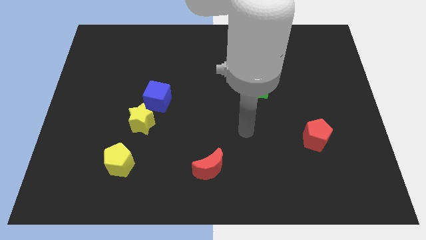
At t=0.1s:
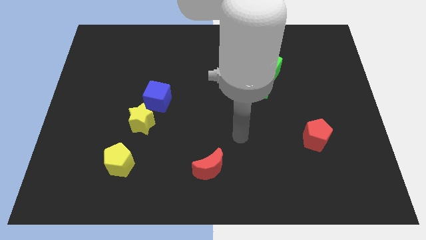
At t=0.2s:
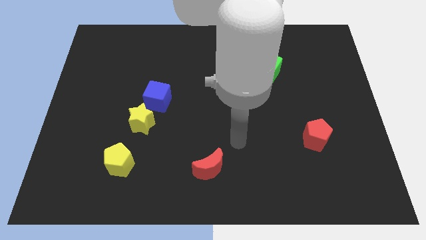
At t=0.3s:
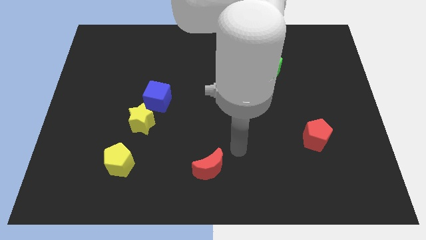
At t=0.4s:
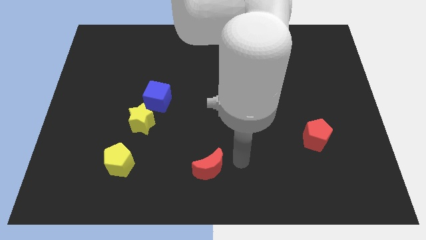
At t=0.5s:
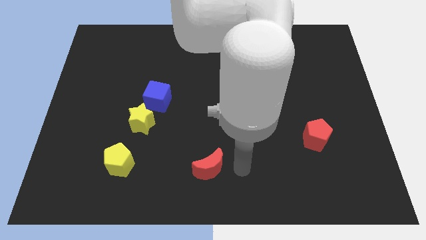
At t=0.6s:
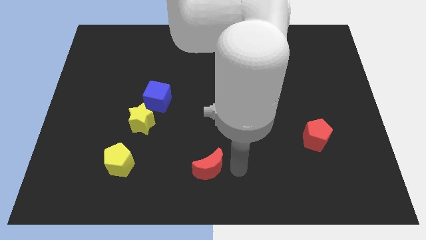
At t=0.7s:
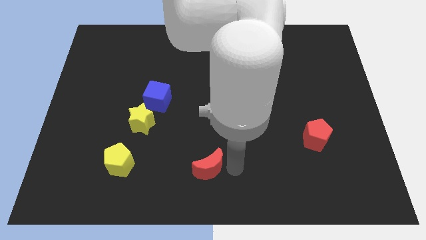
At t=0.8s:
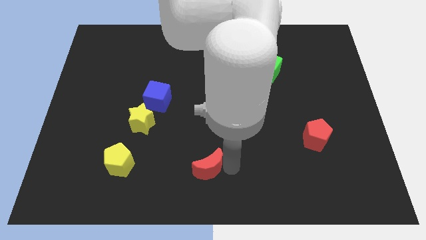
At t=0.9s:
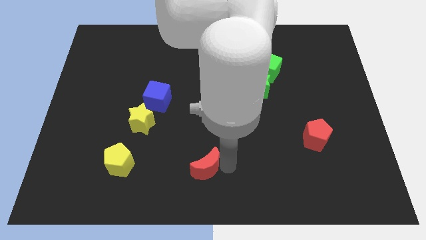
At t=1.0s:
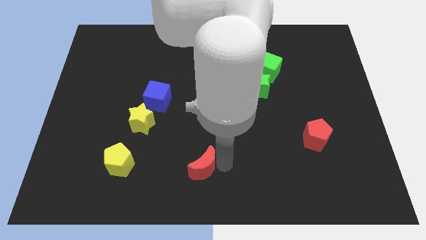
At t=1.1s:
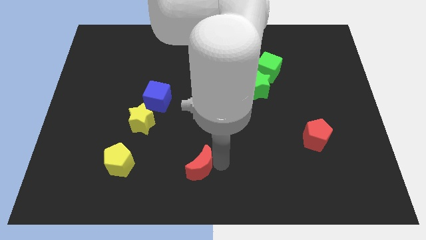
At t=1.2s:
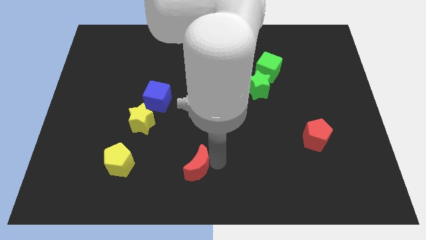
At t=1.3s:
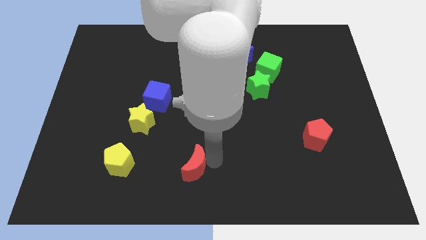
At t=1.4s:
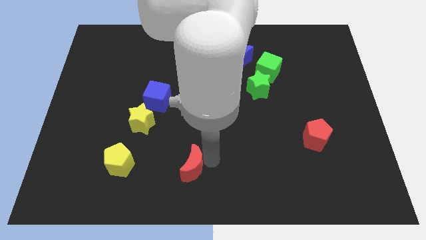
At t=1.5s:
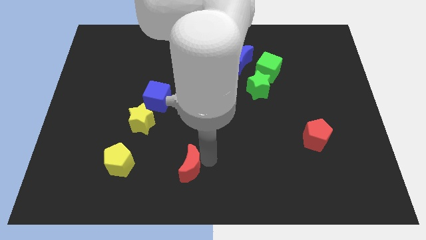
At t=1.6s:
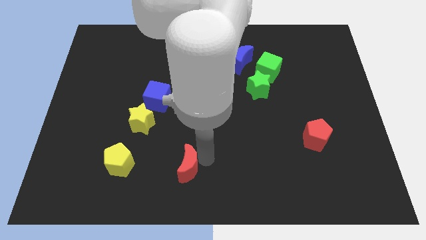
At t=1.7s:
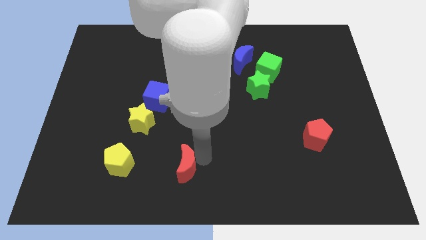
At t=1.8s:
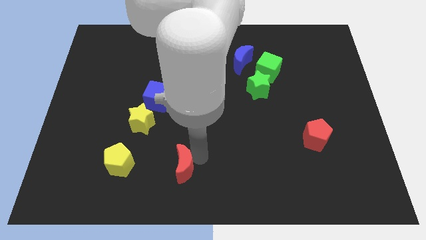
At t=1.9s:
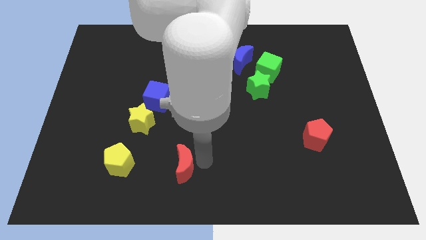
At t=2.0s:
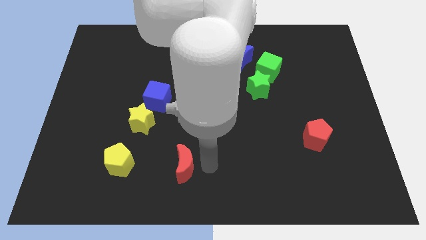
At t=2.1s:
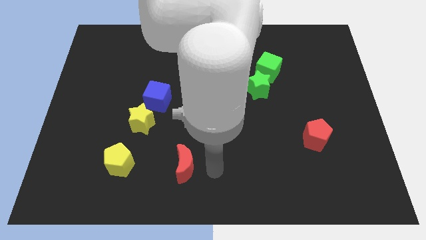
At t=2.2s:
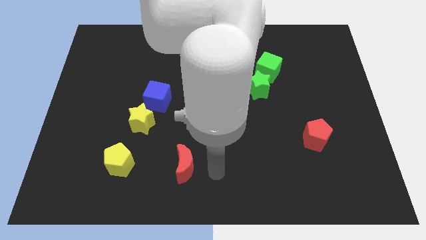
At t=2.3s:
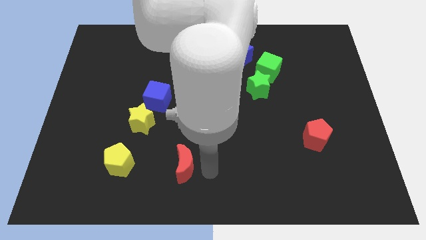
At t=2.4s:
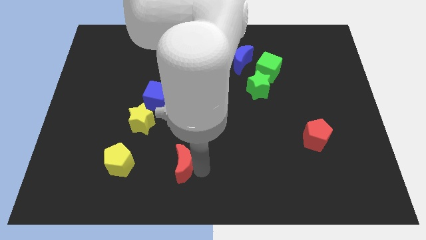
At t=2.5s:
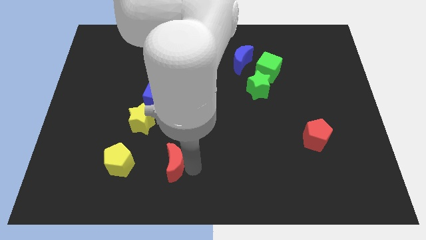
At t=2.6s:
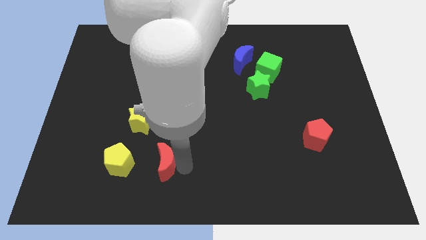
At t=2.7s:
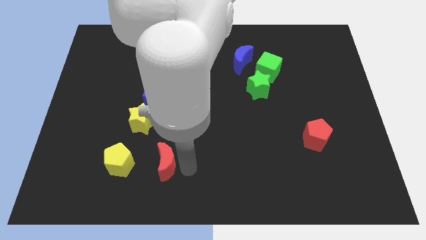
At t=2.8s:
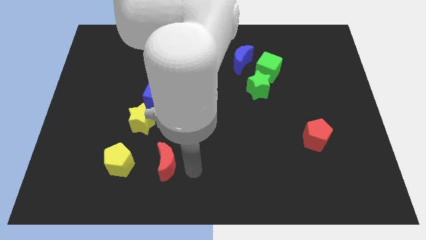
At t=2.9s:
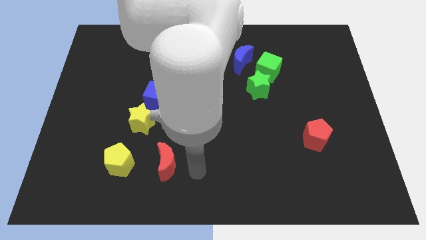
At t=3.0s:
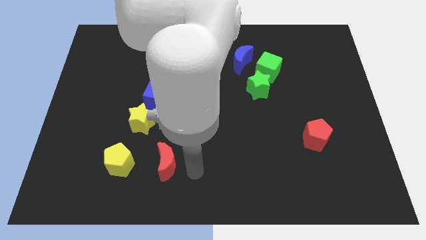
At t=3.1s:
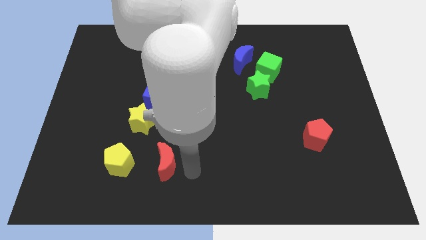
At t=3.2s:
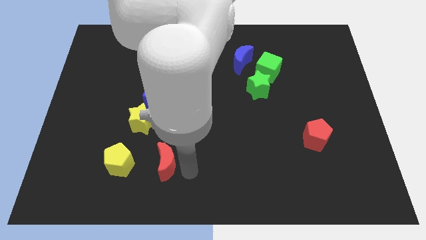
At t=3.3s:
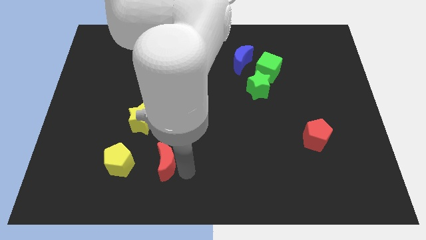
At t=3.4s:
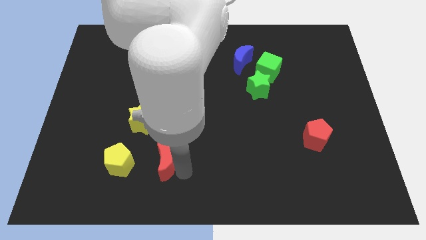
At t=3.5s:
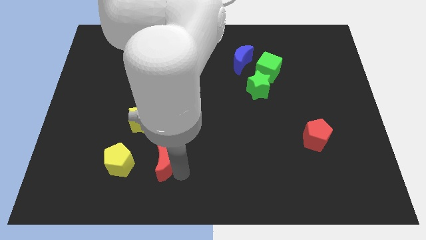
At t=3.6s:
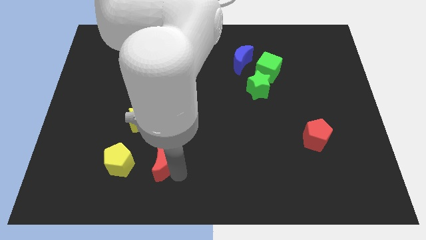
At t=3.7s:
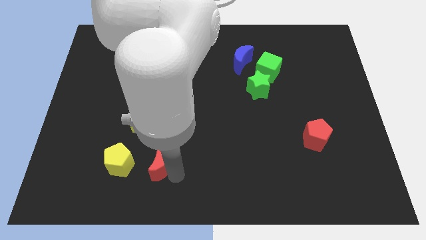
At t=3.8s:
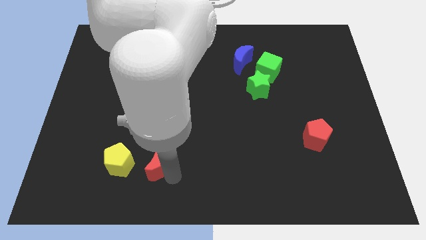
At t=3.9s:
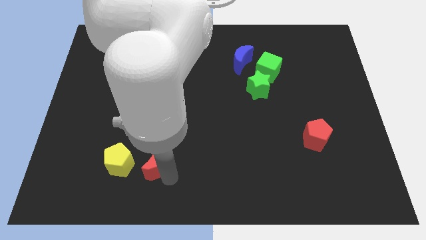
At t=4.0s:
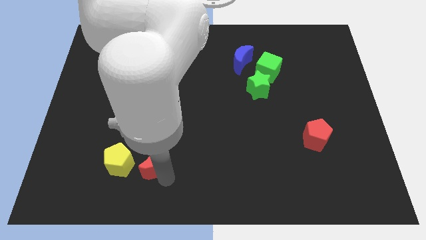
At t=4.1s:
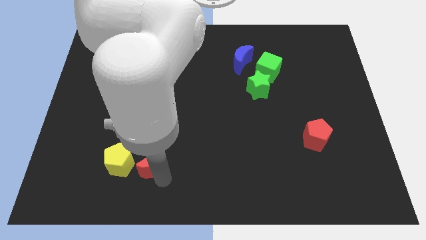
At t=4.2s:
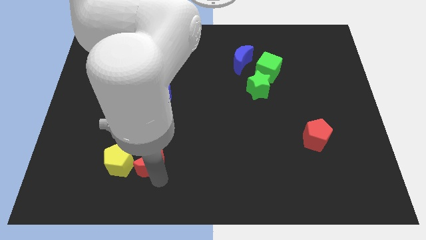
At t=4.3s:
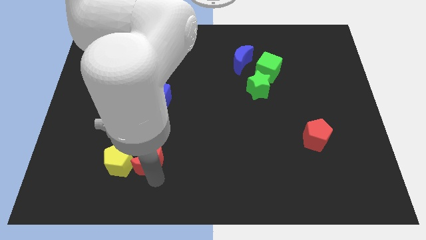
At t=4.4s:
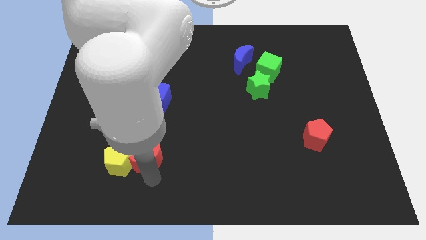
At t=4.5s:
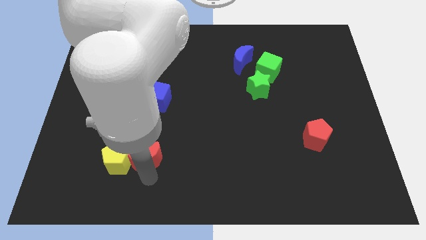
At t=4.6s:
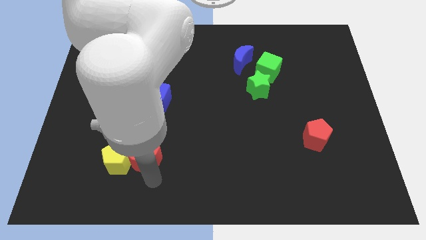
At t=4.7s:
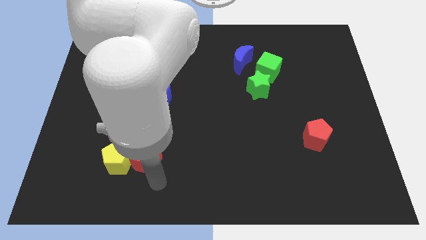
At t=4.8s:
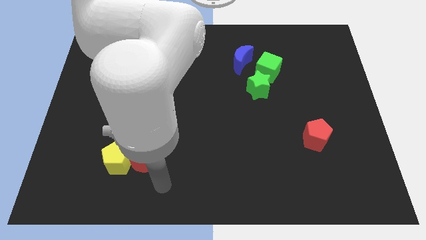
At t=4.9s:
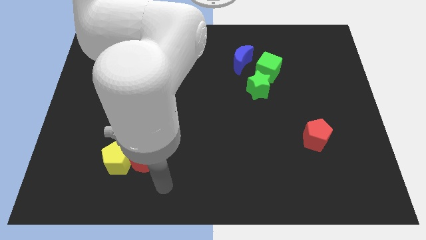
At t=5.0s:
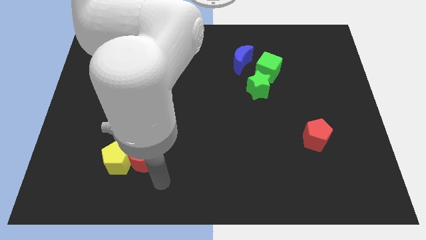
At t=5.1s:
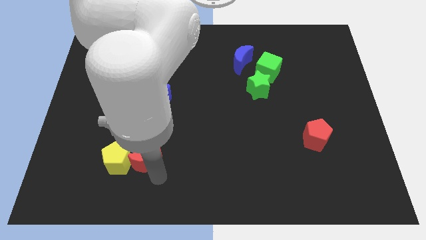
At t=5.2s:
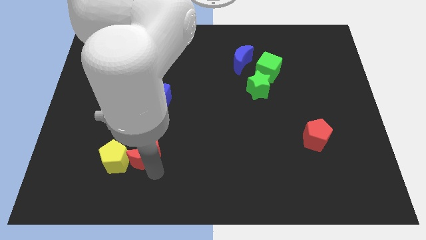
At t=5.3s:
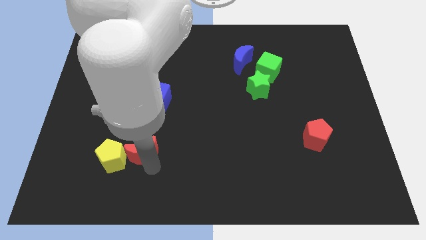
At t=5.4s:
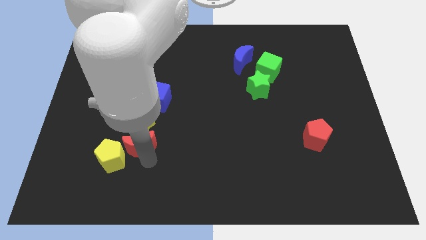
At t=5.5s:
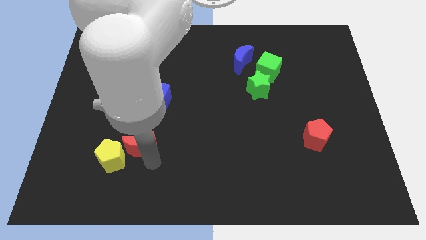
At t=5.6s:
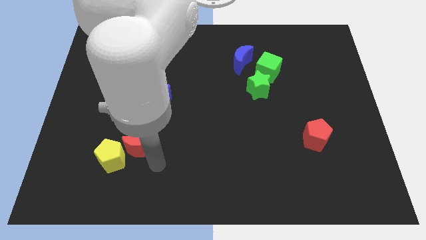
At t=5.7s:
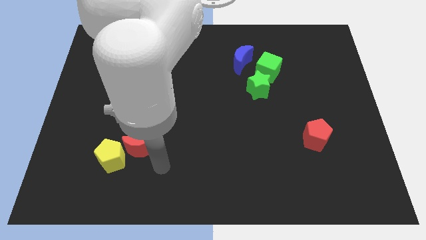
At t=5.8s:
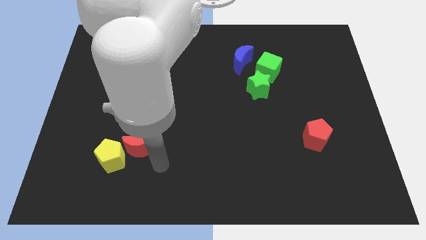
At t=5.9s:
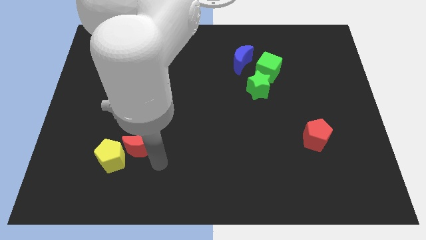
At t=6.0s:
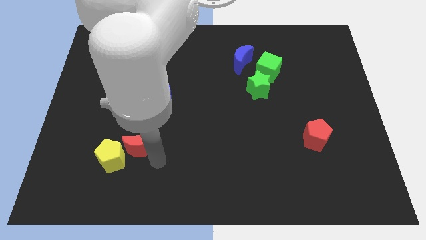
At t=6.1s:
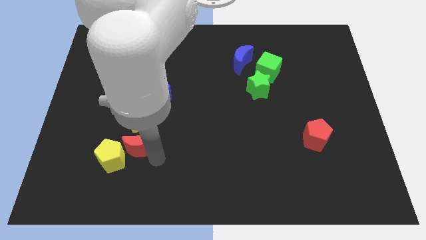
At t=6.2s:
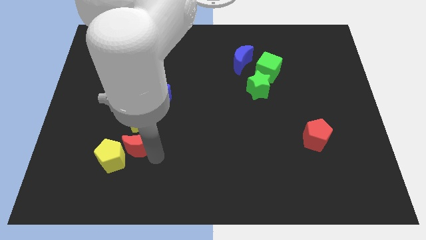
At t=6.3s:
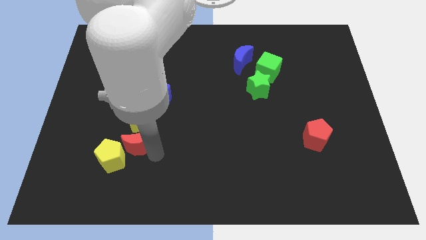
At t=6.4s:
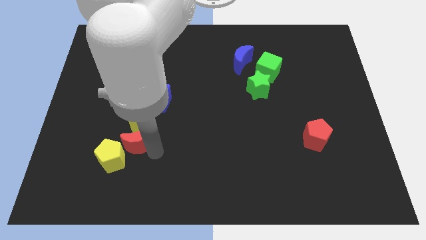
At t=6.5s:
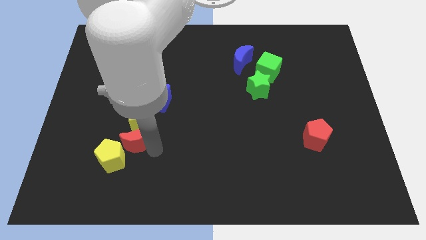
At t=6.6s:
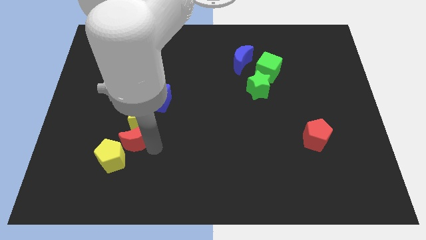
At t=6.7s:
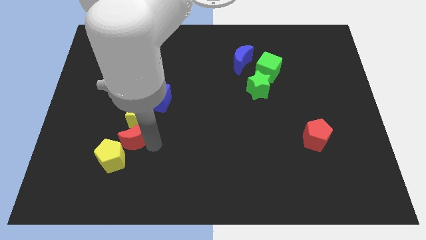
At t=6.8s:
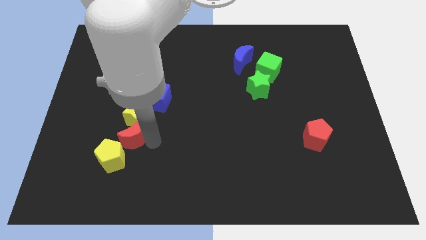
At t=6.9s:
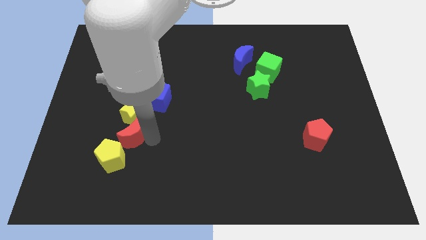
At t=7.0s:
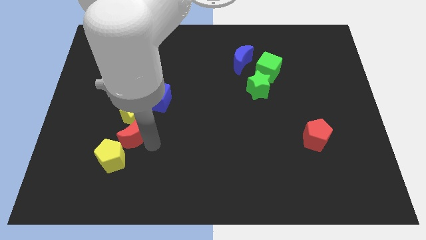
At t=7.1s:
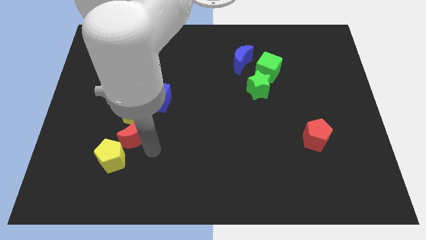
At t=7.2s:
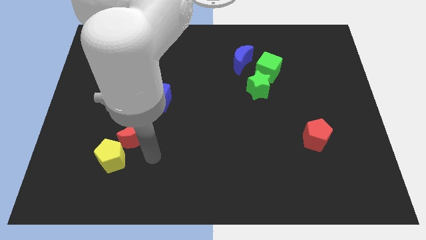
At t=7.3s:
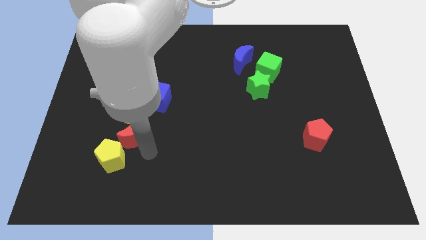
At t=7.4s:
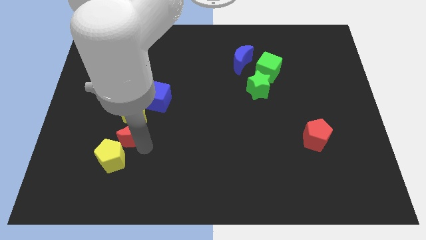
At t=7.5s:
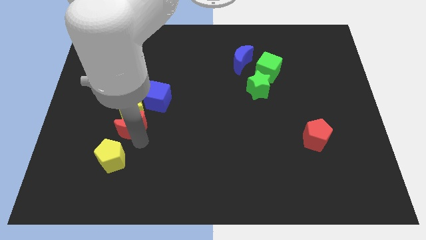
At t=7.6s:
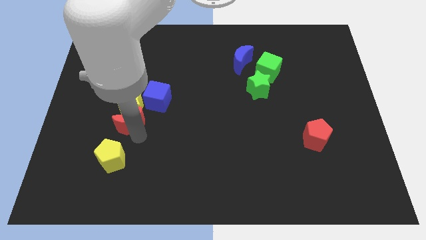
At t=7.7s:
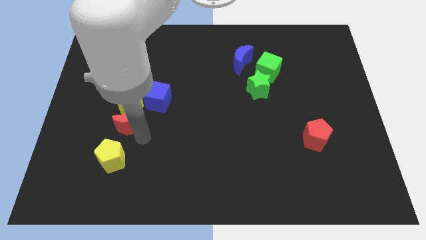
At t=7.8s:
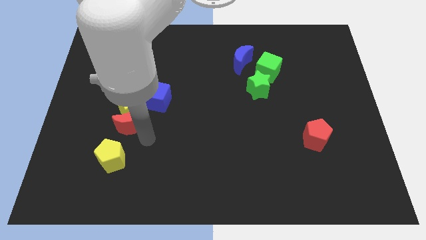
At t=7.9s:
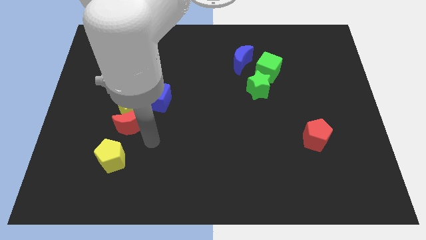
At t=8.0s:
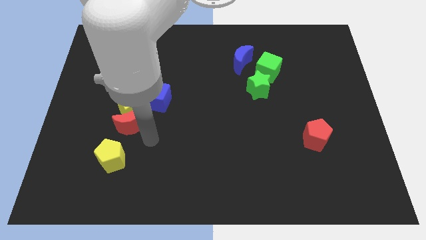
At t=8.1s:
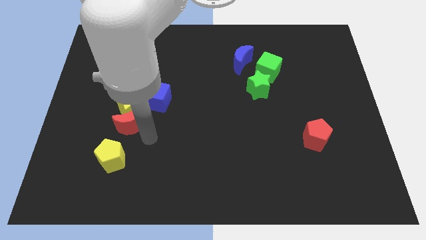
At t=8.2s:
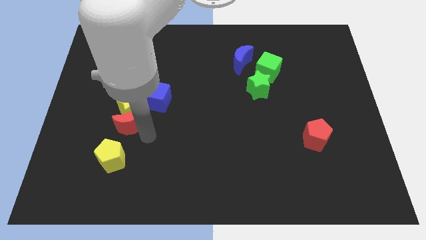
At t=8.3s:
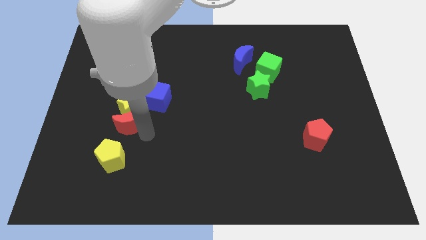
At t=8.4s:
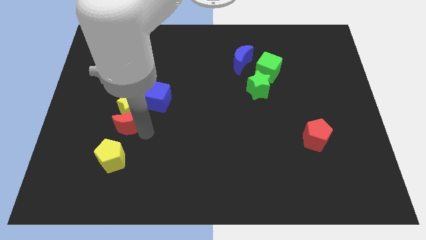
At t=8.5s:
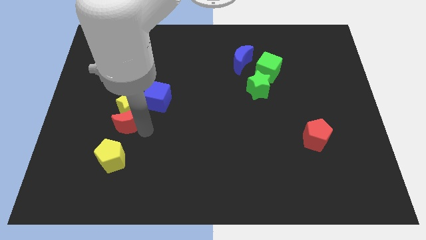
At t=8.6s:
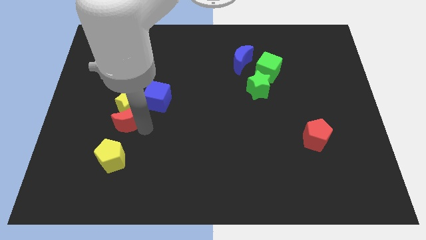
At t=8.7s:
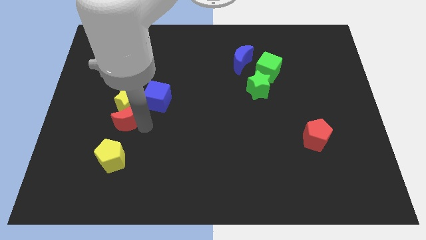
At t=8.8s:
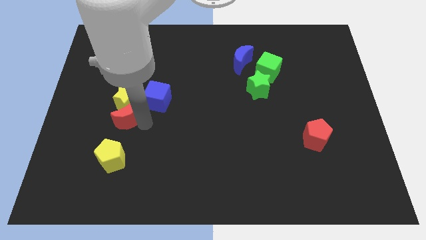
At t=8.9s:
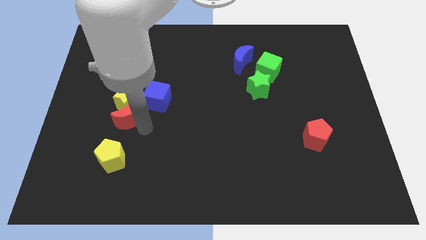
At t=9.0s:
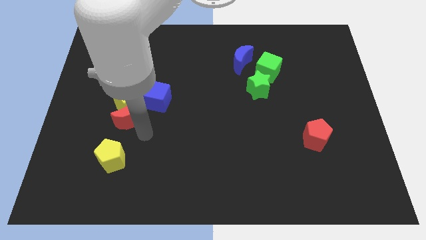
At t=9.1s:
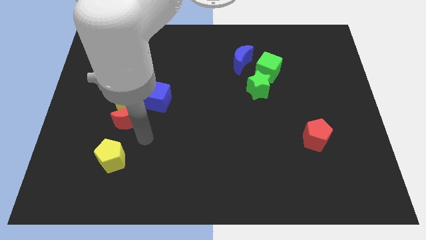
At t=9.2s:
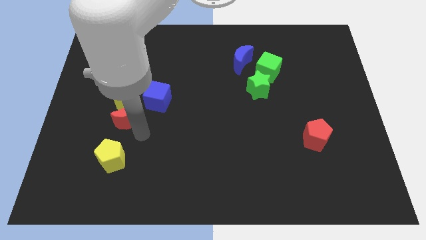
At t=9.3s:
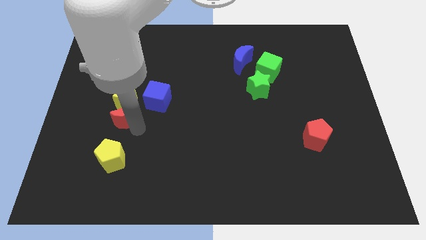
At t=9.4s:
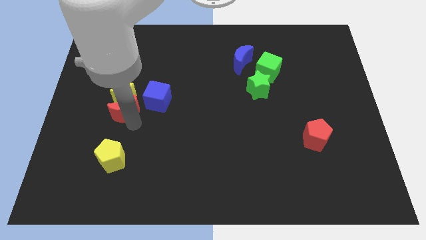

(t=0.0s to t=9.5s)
put the red moon left of the blue cube
